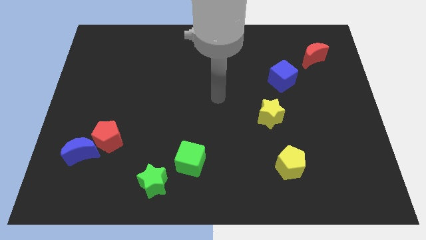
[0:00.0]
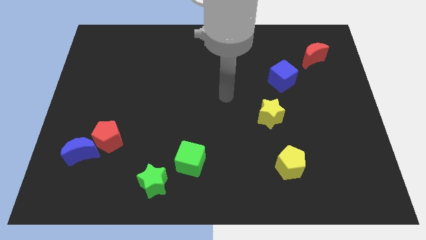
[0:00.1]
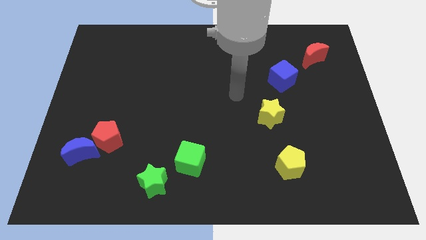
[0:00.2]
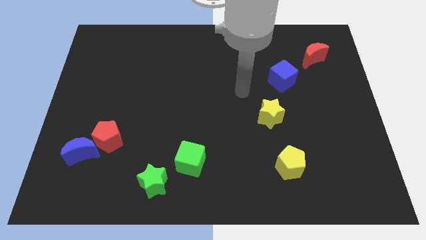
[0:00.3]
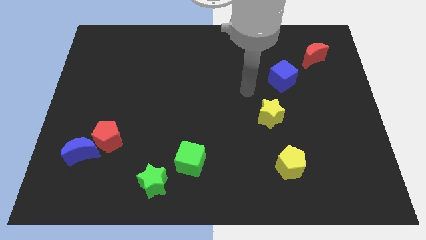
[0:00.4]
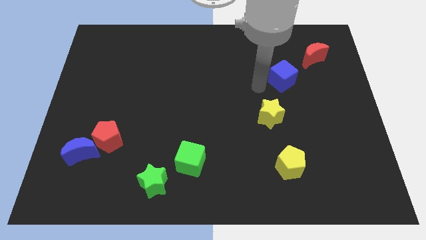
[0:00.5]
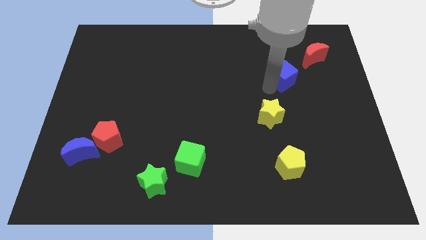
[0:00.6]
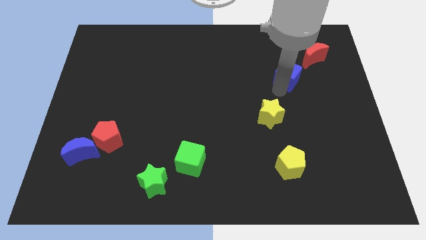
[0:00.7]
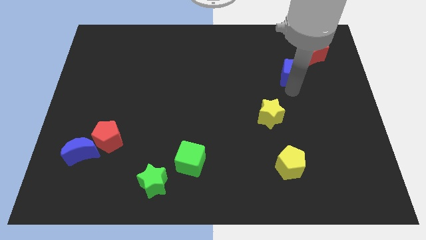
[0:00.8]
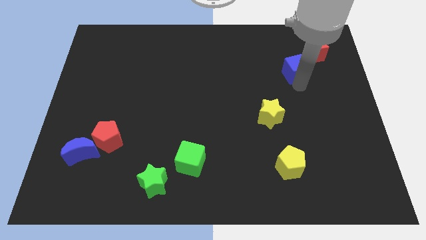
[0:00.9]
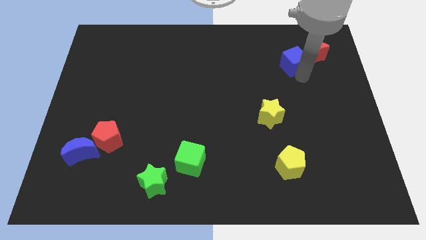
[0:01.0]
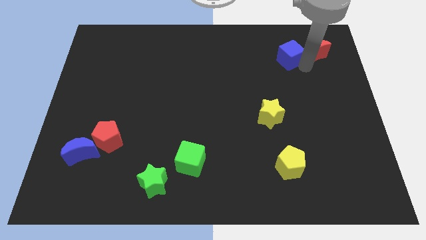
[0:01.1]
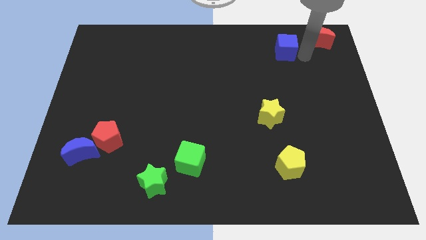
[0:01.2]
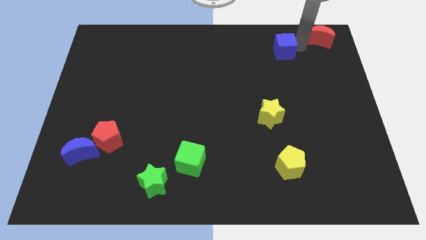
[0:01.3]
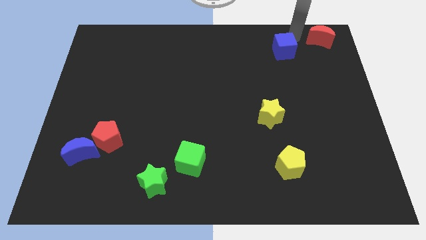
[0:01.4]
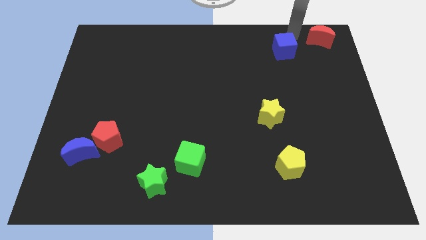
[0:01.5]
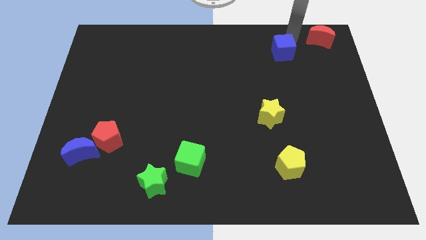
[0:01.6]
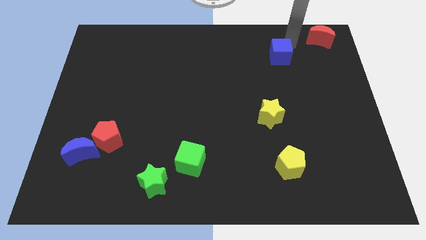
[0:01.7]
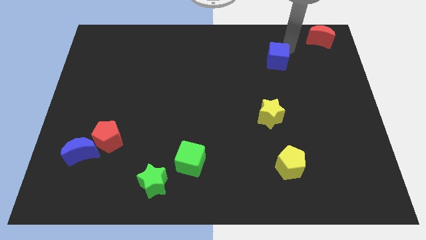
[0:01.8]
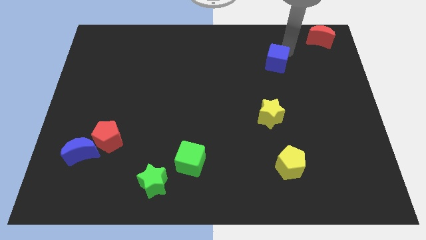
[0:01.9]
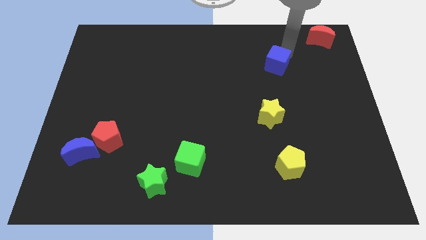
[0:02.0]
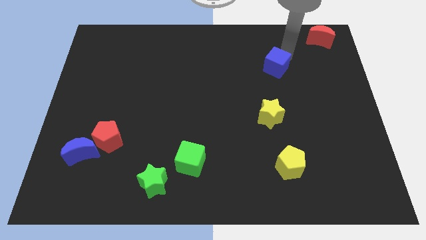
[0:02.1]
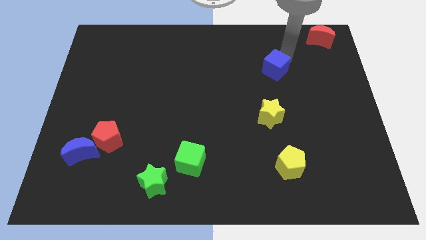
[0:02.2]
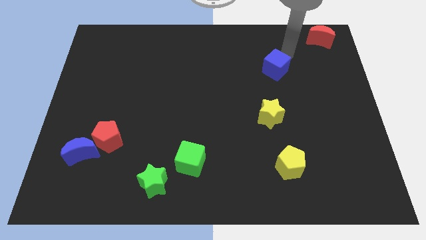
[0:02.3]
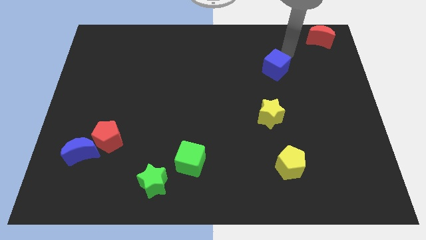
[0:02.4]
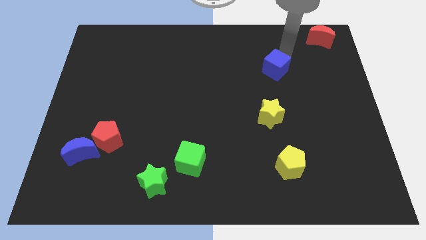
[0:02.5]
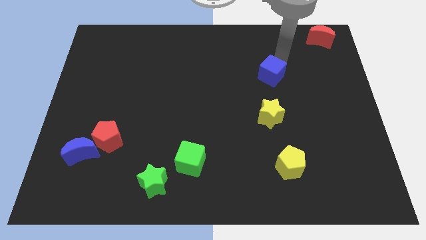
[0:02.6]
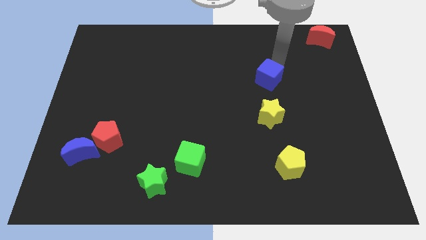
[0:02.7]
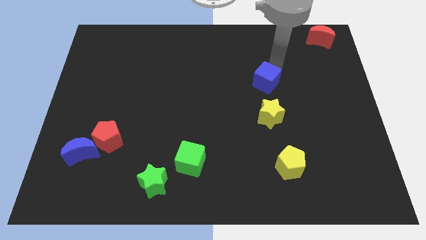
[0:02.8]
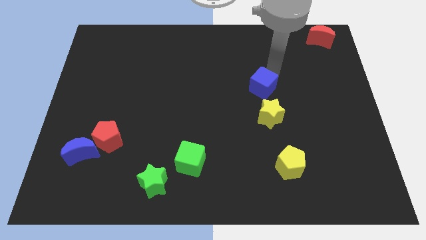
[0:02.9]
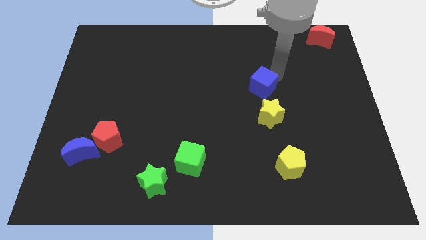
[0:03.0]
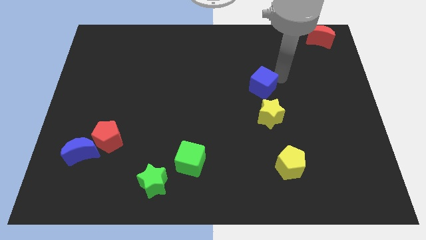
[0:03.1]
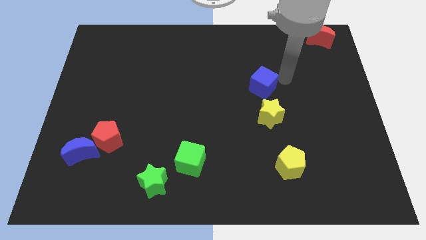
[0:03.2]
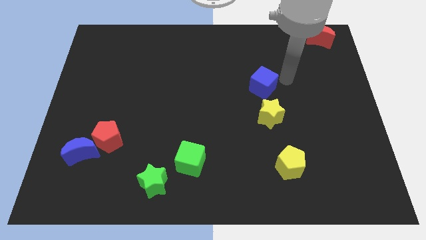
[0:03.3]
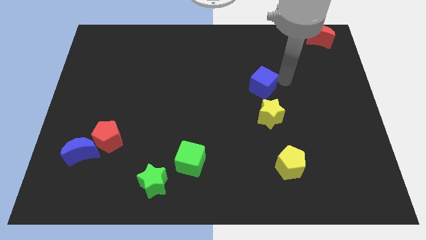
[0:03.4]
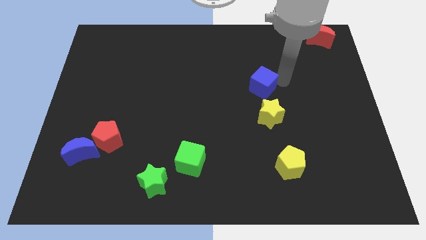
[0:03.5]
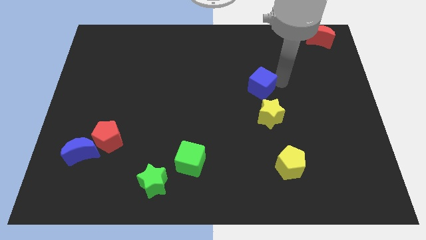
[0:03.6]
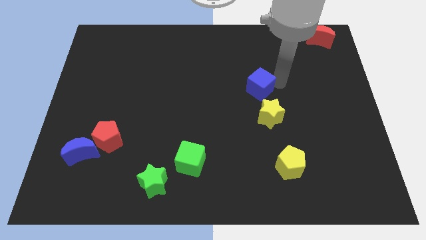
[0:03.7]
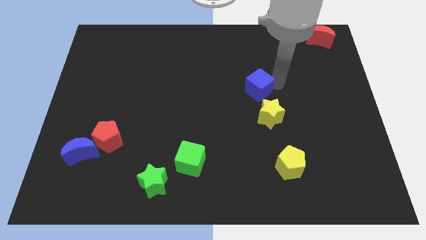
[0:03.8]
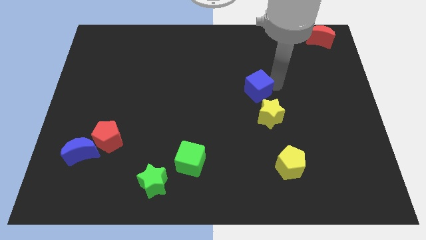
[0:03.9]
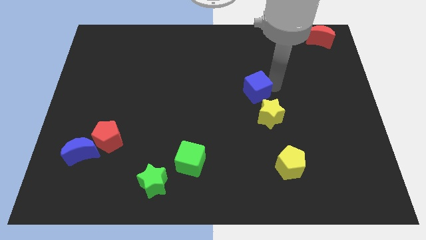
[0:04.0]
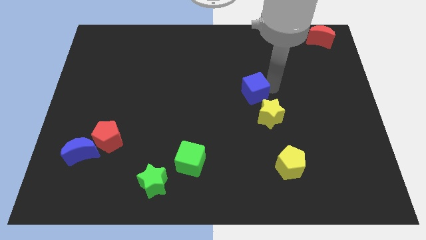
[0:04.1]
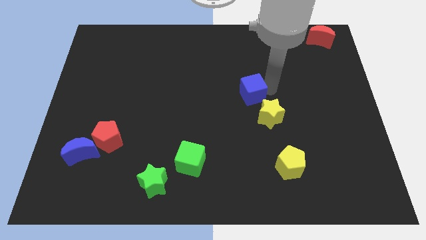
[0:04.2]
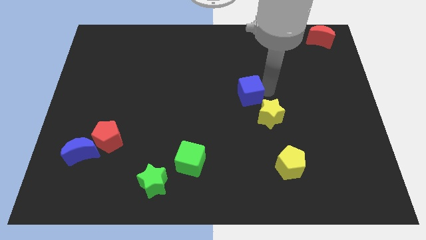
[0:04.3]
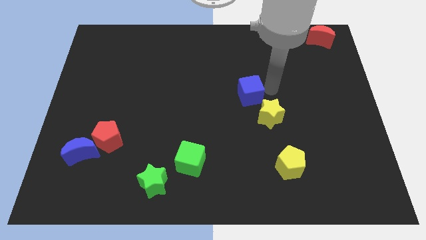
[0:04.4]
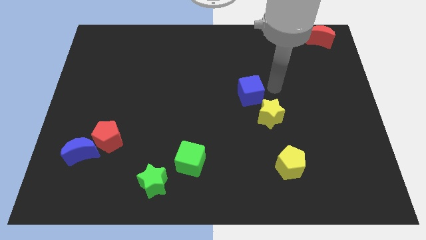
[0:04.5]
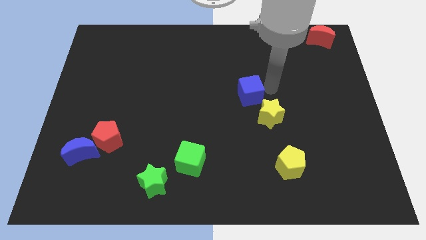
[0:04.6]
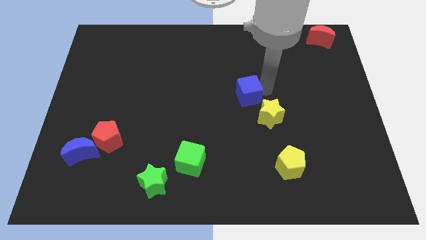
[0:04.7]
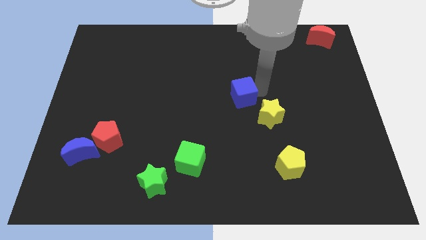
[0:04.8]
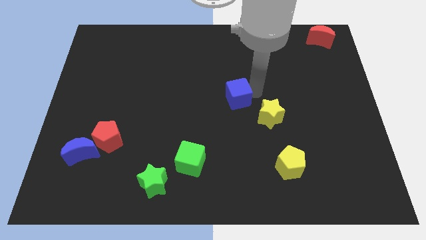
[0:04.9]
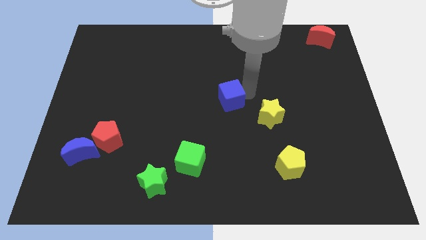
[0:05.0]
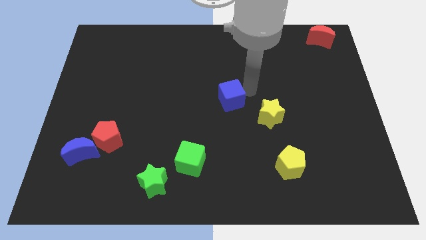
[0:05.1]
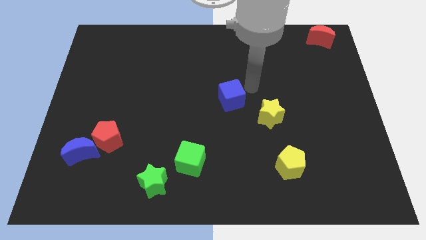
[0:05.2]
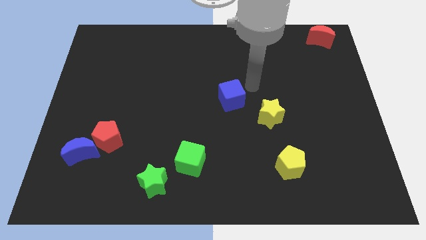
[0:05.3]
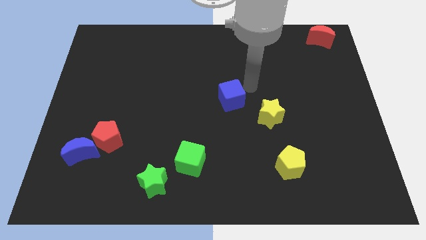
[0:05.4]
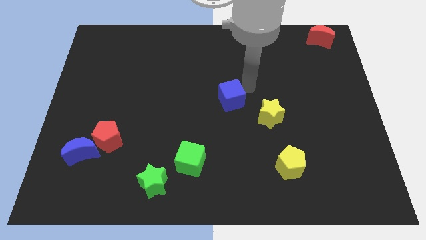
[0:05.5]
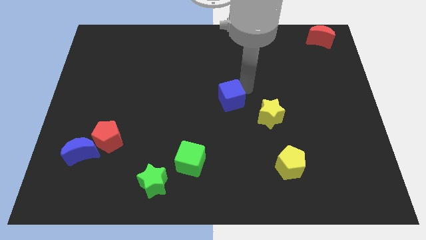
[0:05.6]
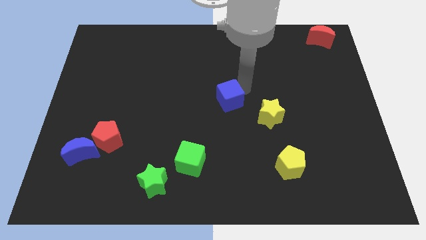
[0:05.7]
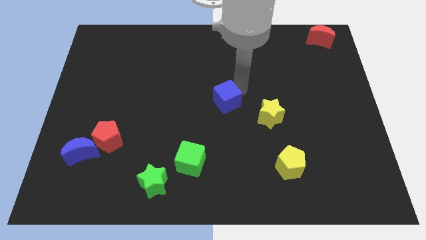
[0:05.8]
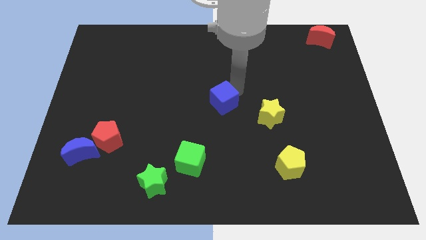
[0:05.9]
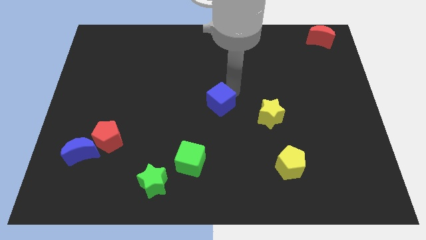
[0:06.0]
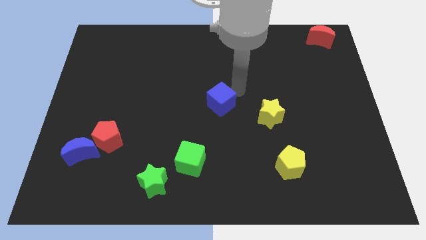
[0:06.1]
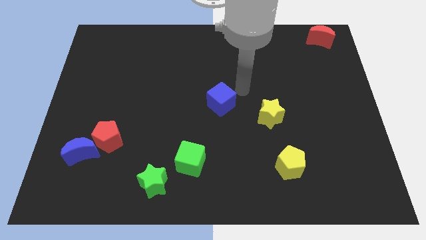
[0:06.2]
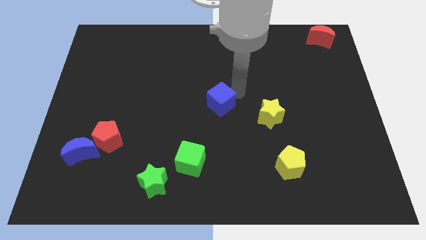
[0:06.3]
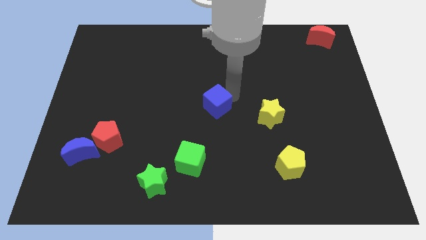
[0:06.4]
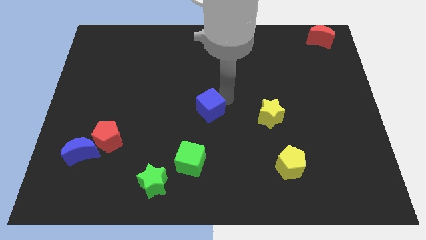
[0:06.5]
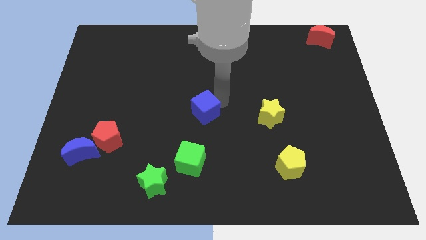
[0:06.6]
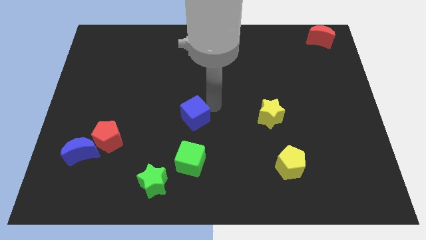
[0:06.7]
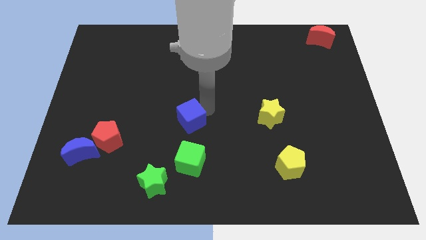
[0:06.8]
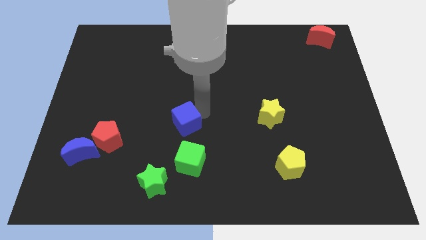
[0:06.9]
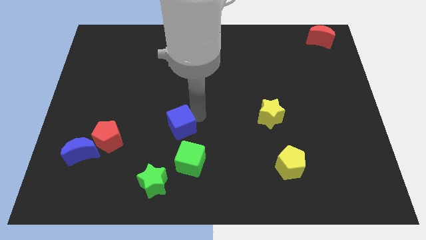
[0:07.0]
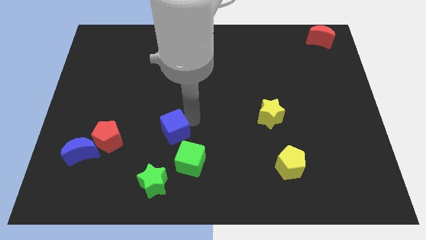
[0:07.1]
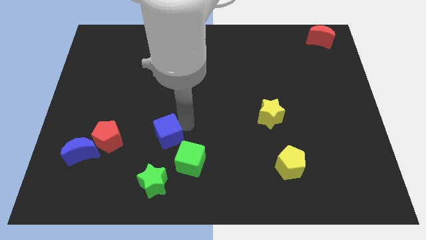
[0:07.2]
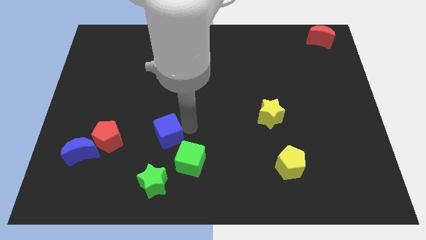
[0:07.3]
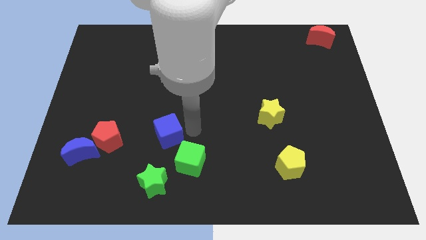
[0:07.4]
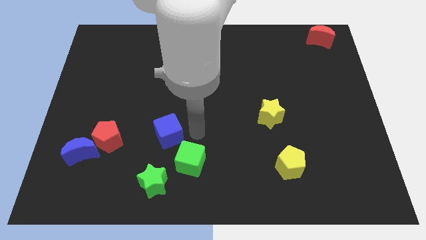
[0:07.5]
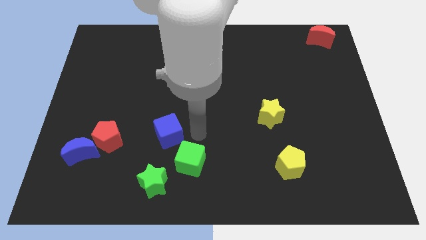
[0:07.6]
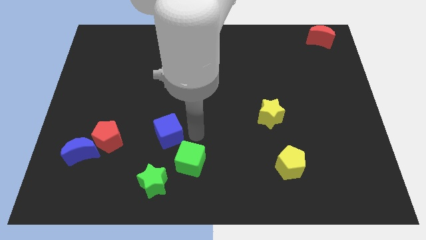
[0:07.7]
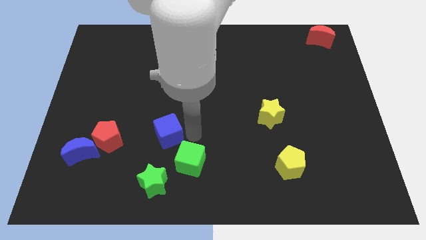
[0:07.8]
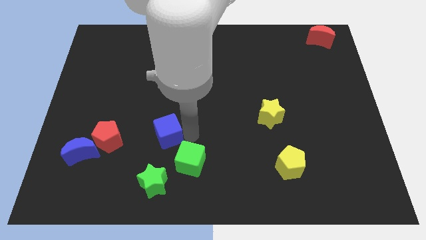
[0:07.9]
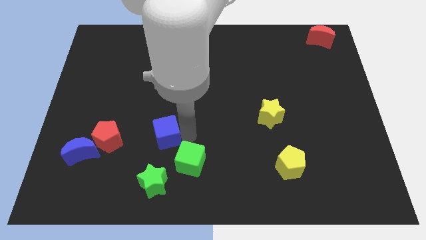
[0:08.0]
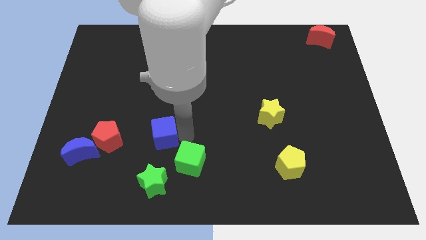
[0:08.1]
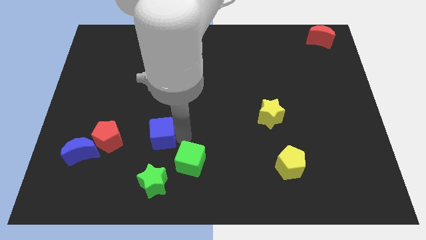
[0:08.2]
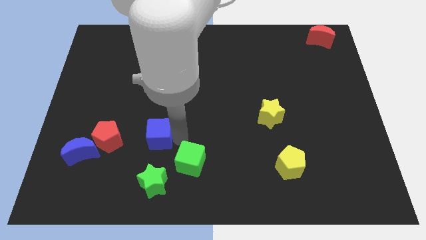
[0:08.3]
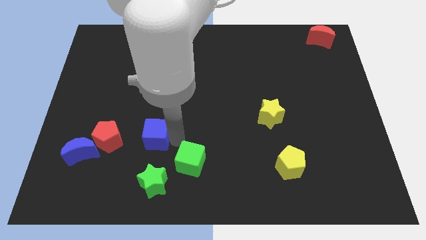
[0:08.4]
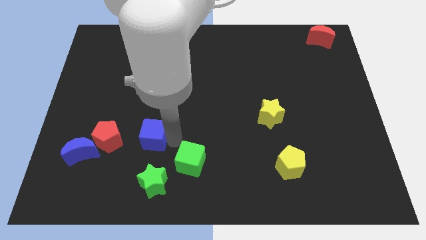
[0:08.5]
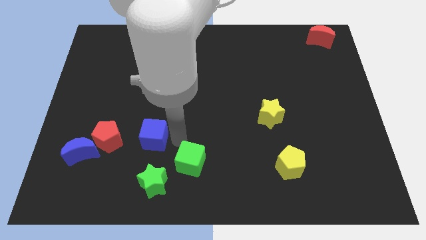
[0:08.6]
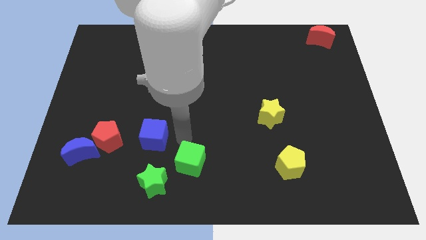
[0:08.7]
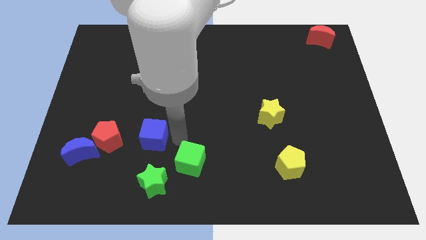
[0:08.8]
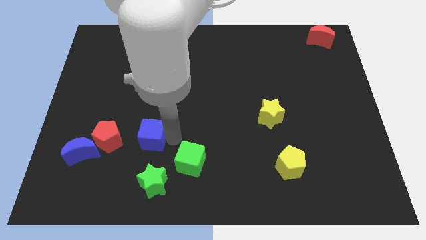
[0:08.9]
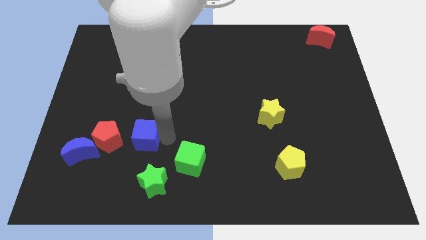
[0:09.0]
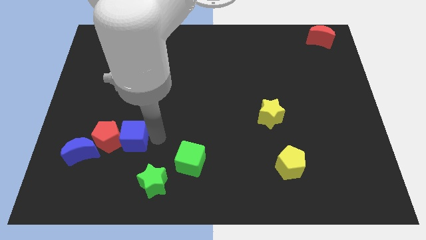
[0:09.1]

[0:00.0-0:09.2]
slide the blue cube to the red pentagon
